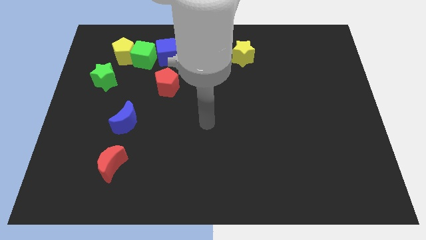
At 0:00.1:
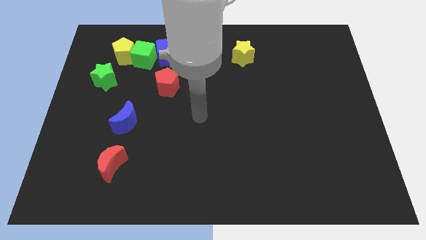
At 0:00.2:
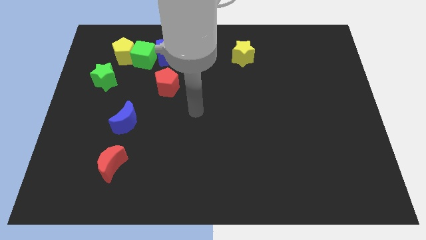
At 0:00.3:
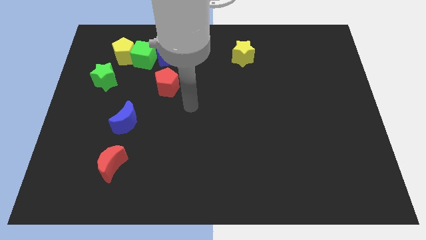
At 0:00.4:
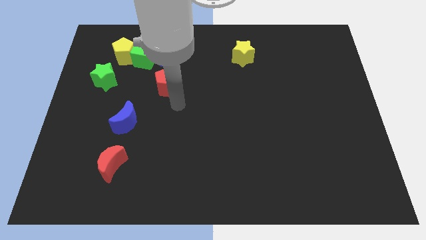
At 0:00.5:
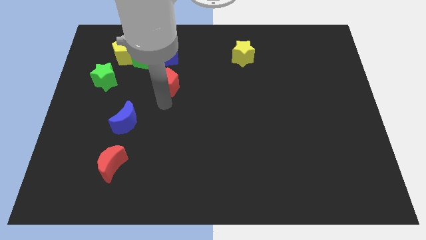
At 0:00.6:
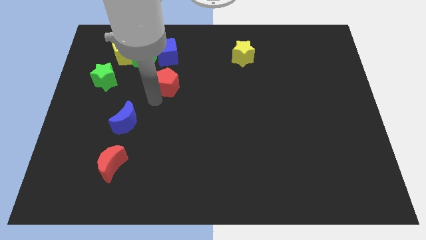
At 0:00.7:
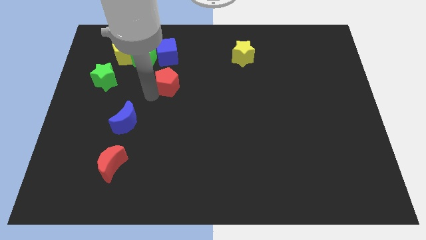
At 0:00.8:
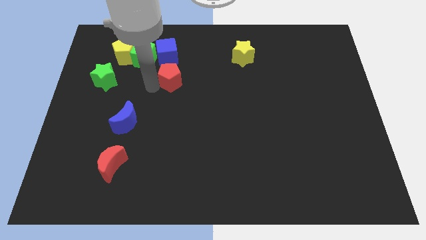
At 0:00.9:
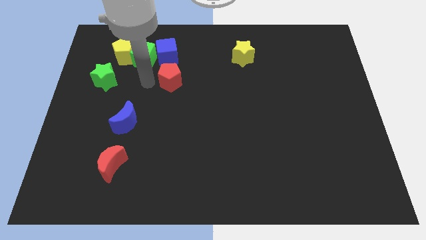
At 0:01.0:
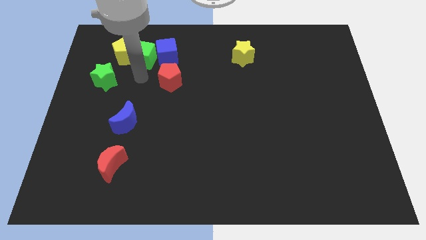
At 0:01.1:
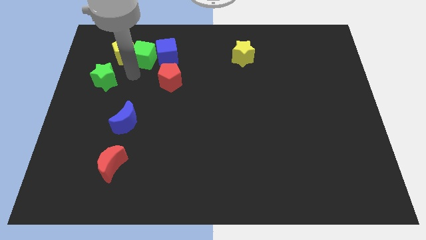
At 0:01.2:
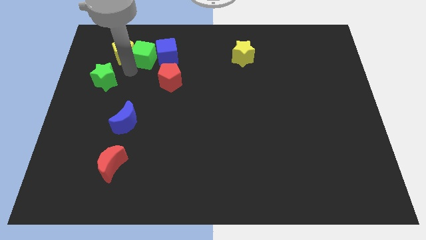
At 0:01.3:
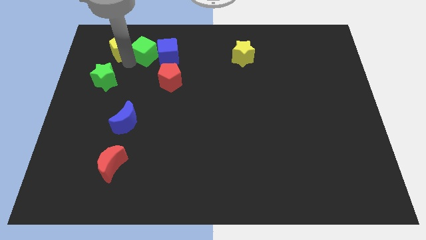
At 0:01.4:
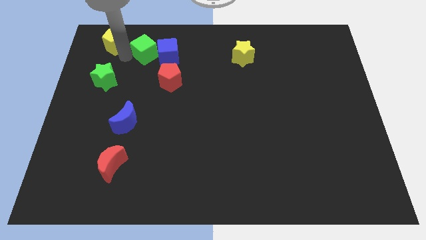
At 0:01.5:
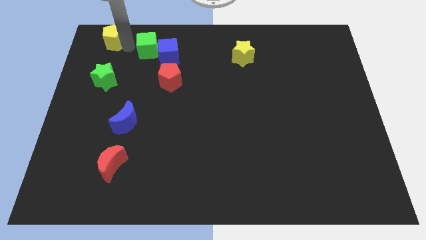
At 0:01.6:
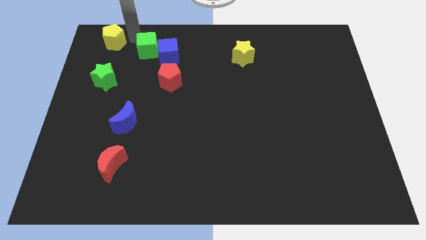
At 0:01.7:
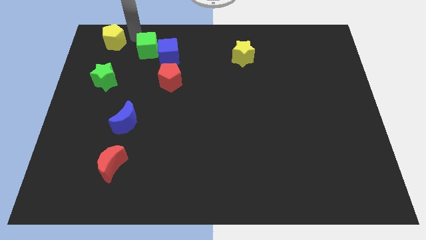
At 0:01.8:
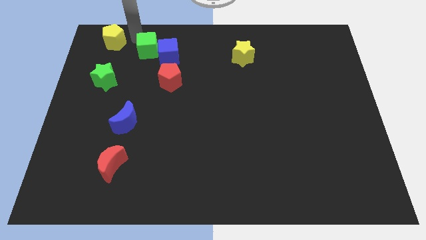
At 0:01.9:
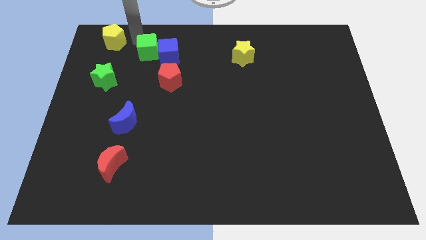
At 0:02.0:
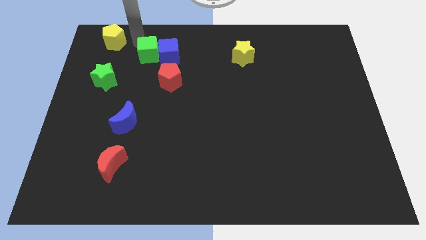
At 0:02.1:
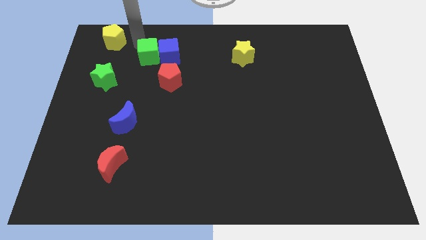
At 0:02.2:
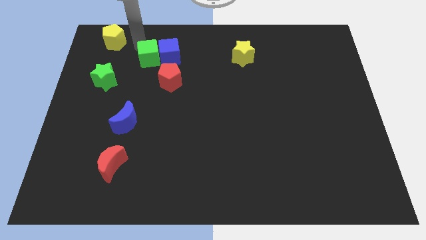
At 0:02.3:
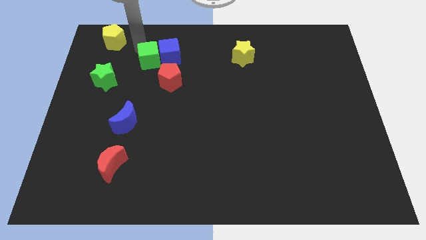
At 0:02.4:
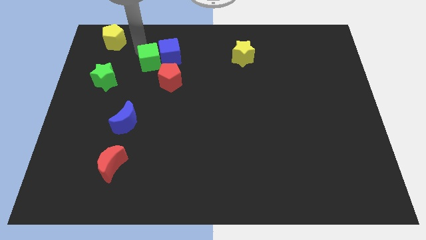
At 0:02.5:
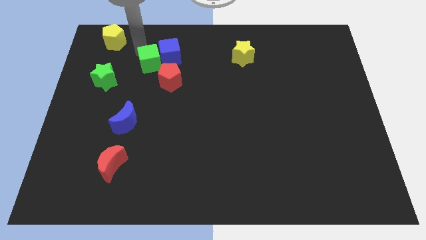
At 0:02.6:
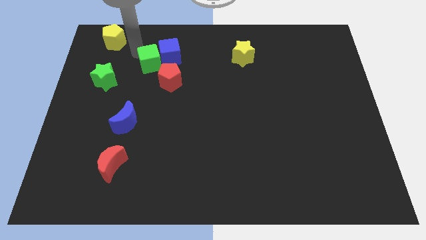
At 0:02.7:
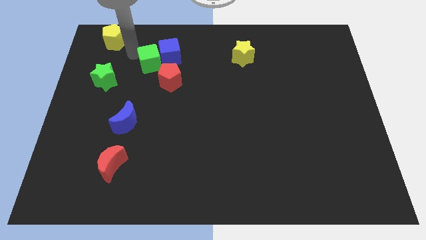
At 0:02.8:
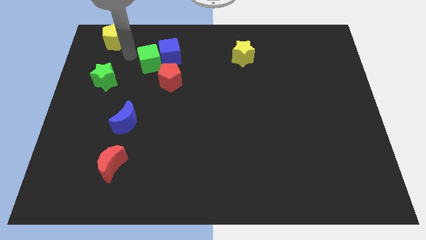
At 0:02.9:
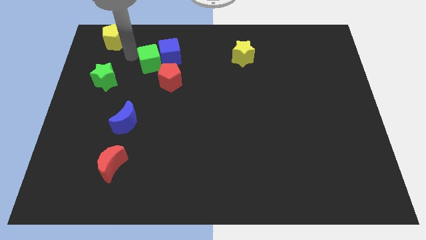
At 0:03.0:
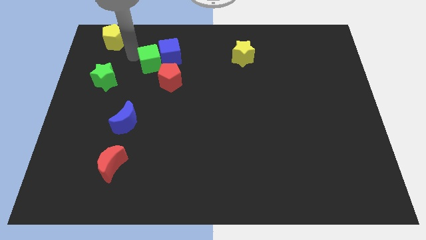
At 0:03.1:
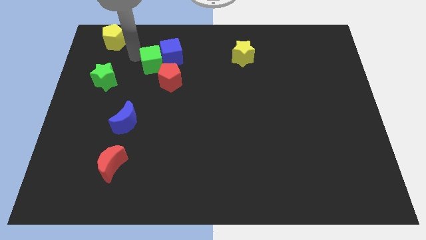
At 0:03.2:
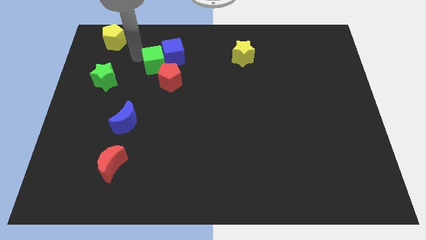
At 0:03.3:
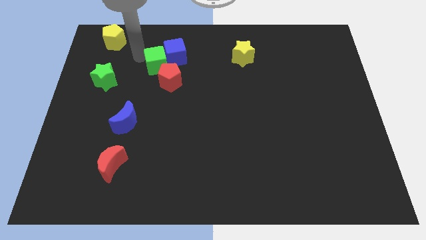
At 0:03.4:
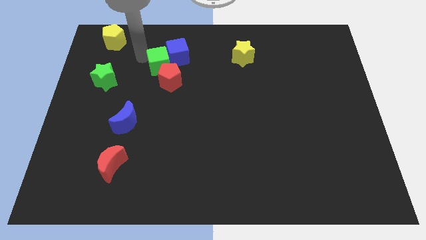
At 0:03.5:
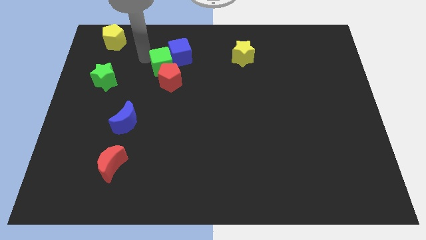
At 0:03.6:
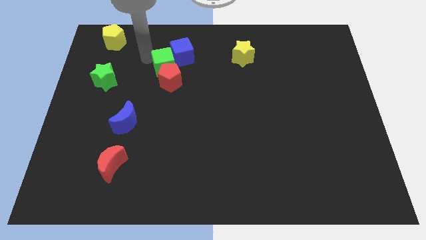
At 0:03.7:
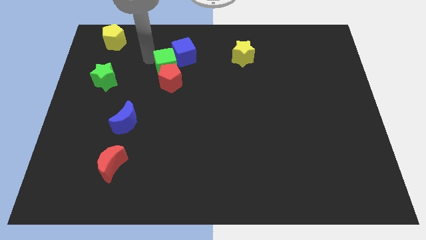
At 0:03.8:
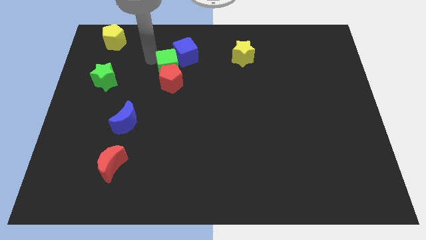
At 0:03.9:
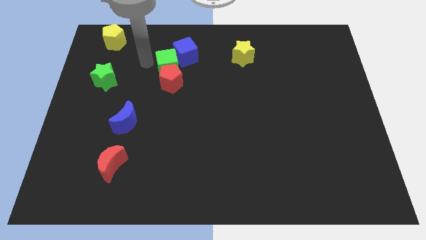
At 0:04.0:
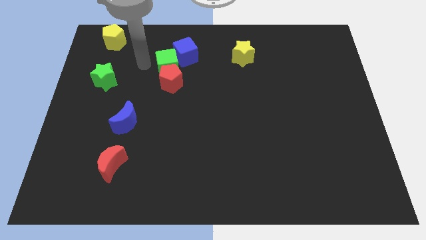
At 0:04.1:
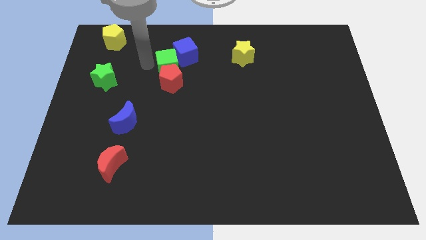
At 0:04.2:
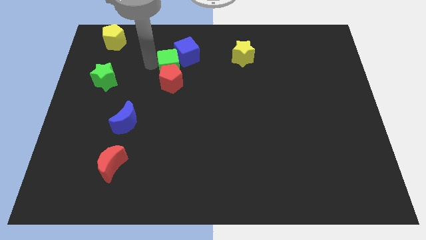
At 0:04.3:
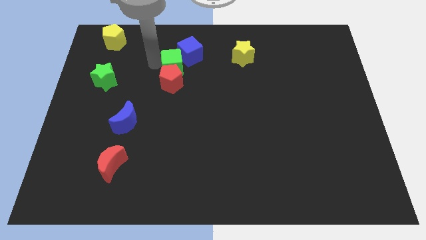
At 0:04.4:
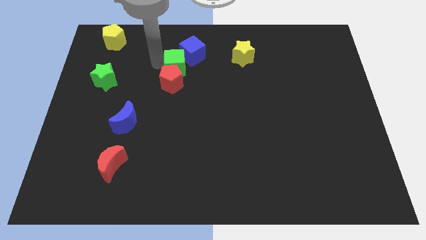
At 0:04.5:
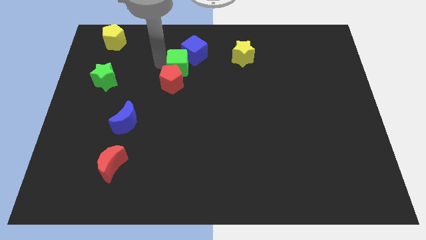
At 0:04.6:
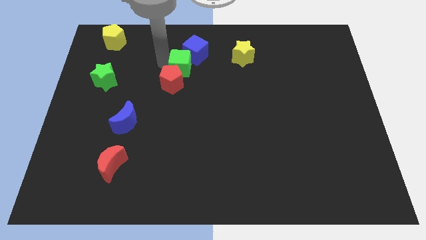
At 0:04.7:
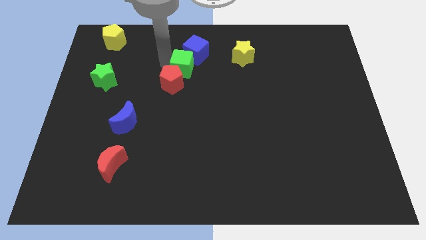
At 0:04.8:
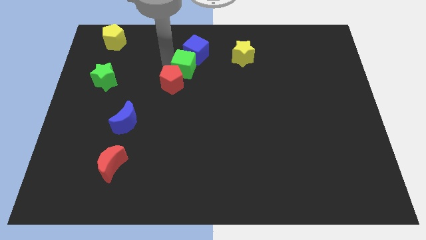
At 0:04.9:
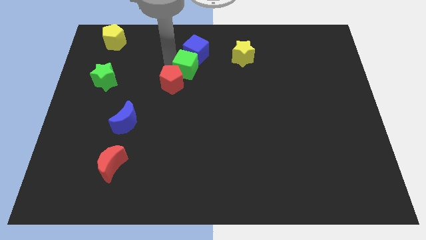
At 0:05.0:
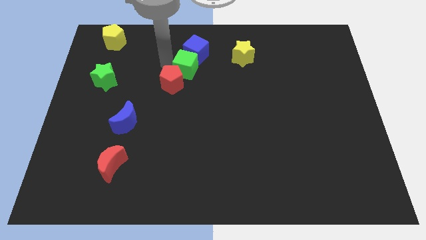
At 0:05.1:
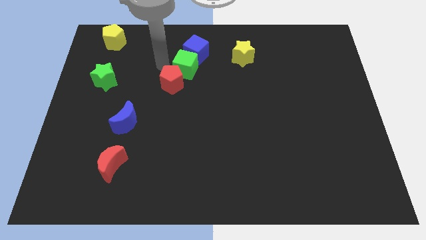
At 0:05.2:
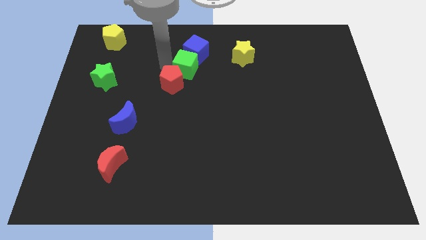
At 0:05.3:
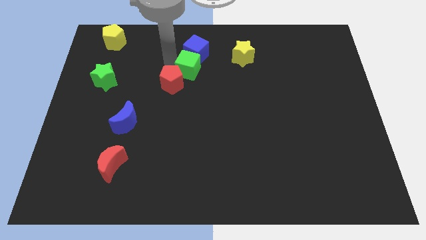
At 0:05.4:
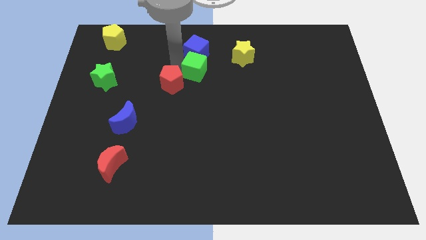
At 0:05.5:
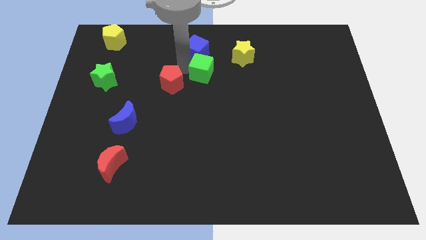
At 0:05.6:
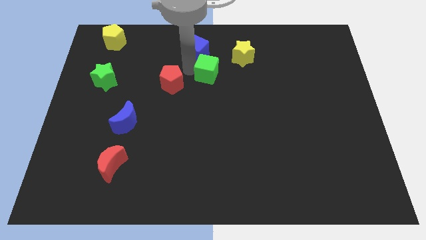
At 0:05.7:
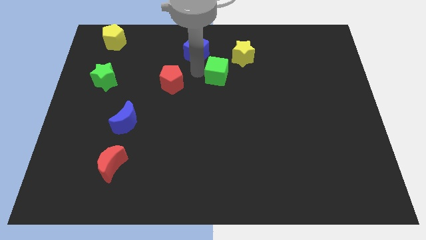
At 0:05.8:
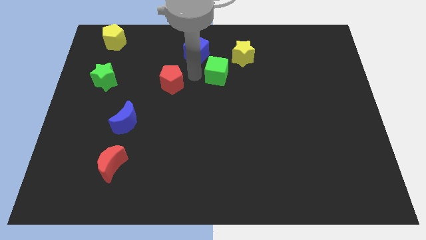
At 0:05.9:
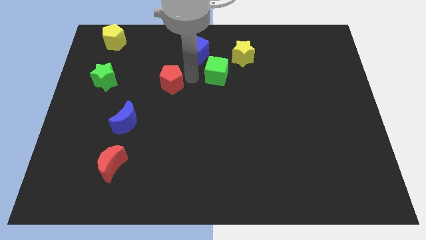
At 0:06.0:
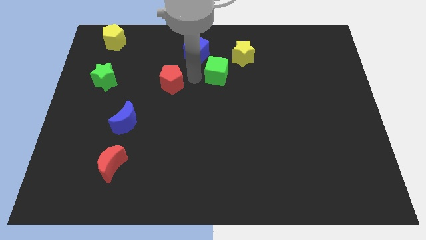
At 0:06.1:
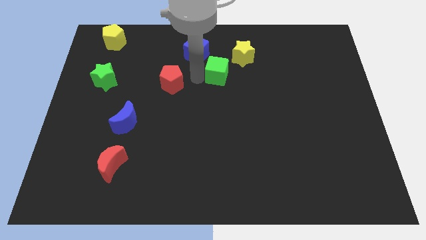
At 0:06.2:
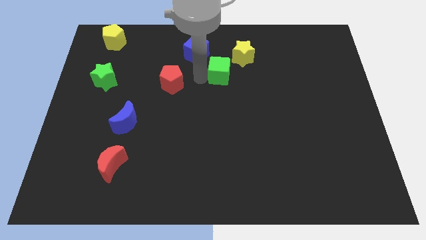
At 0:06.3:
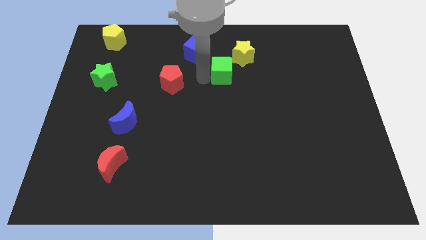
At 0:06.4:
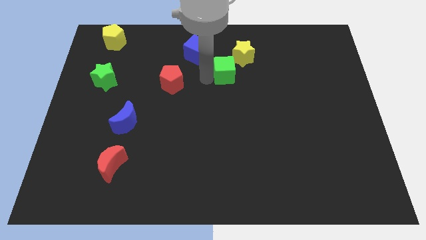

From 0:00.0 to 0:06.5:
move the green cube right

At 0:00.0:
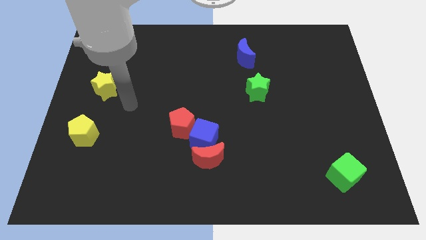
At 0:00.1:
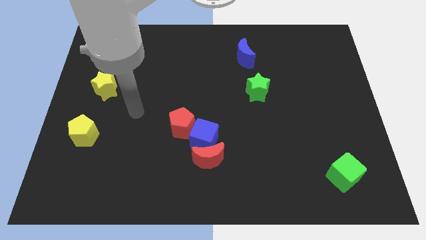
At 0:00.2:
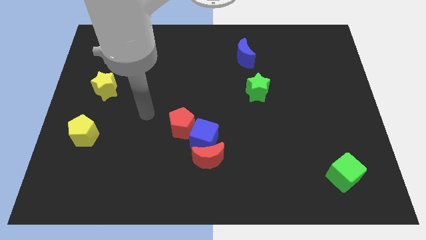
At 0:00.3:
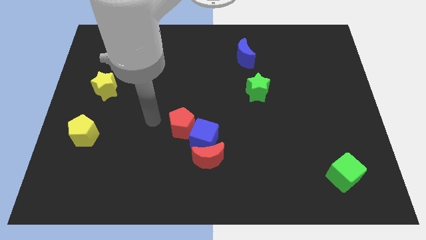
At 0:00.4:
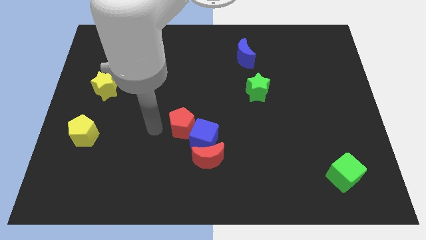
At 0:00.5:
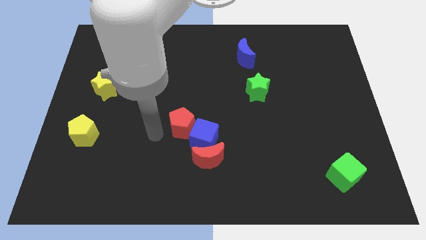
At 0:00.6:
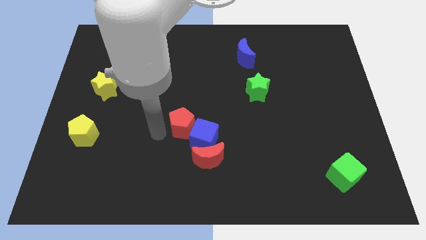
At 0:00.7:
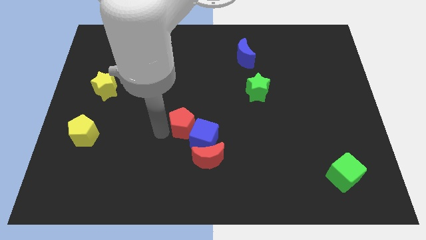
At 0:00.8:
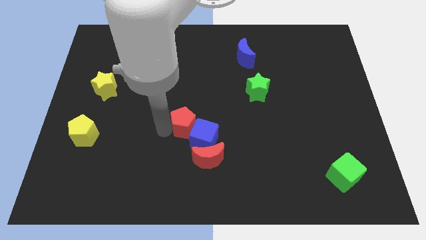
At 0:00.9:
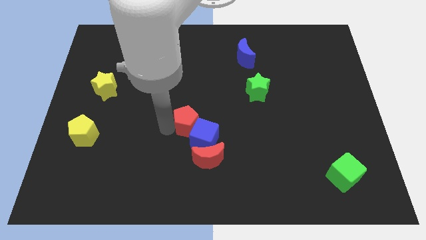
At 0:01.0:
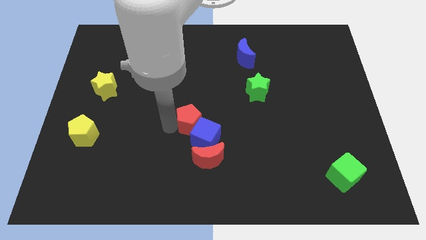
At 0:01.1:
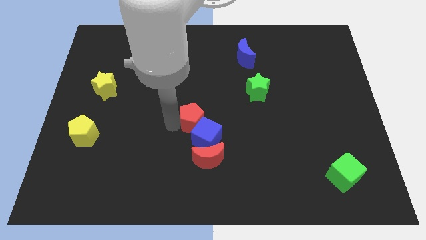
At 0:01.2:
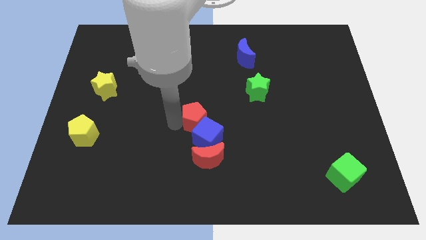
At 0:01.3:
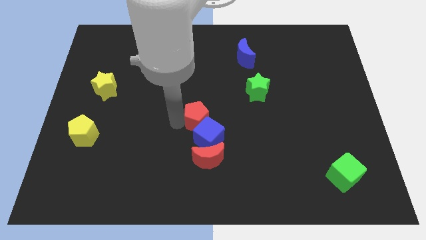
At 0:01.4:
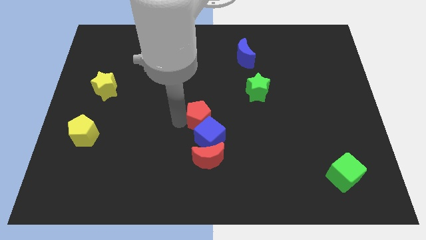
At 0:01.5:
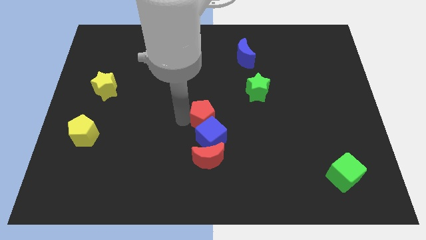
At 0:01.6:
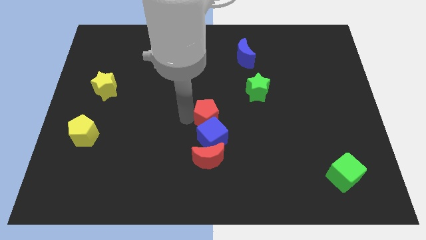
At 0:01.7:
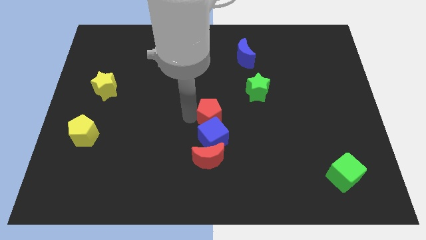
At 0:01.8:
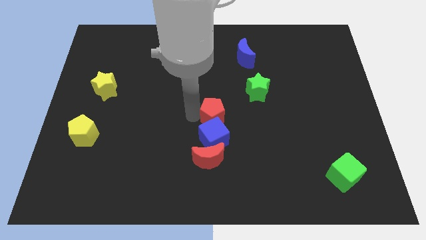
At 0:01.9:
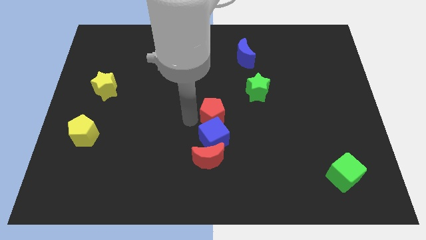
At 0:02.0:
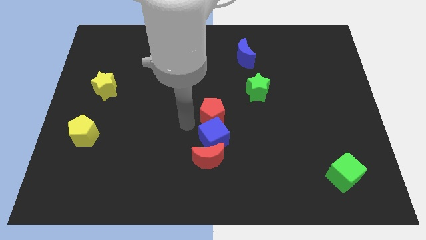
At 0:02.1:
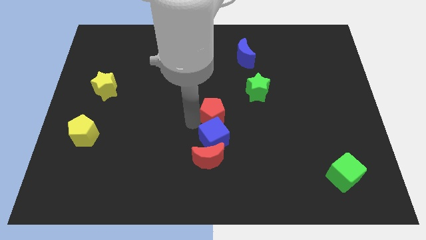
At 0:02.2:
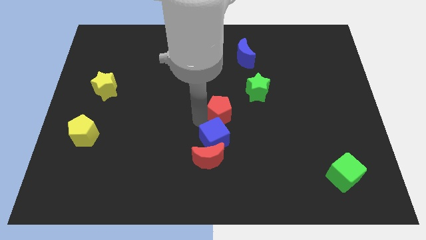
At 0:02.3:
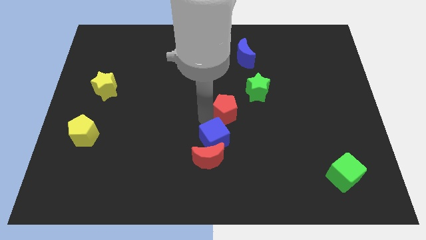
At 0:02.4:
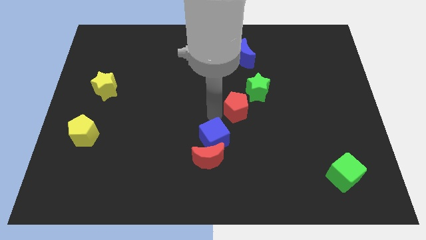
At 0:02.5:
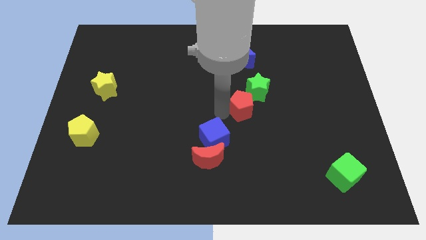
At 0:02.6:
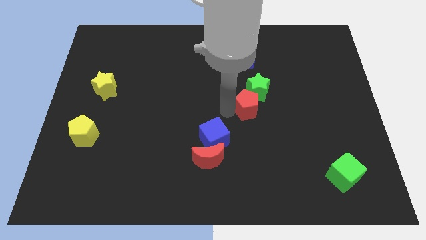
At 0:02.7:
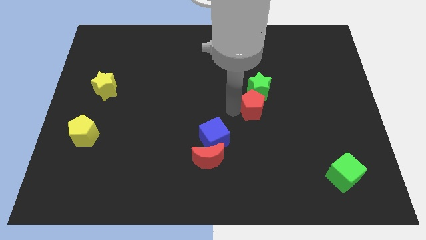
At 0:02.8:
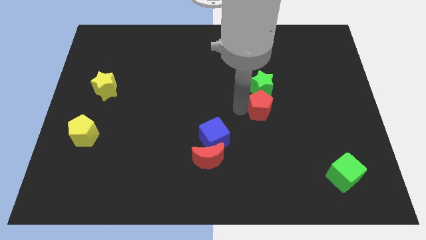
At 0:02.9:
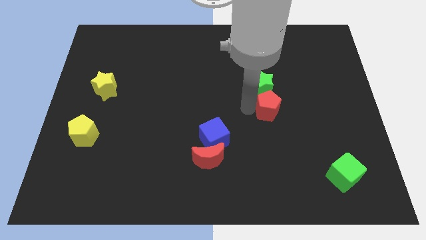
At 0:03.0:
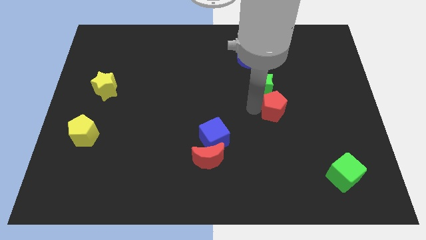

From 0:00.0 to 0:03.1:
push the red pentagon right
